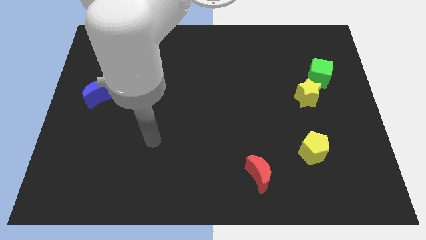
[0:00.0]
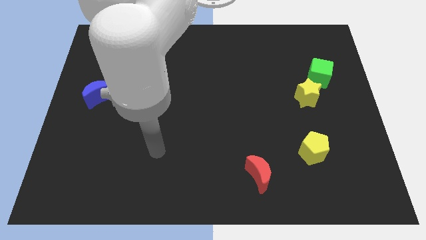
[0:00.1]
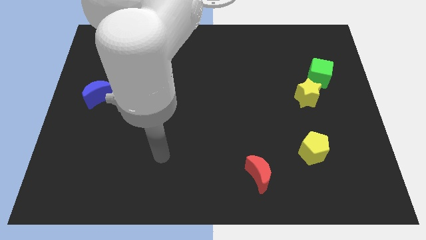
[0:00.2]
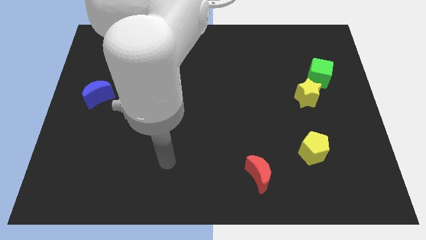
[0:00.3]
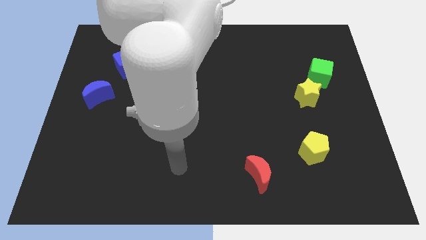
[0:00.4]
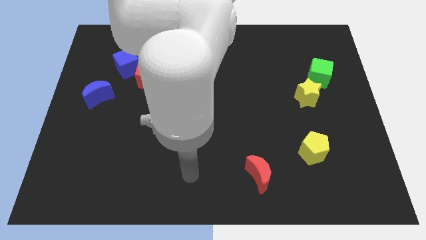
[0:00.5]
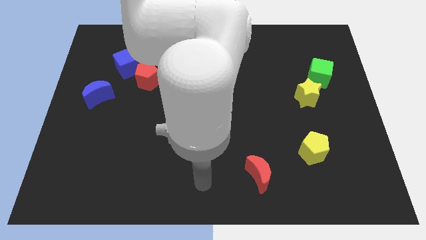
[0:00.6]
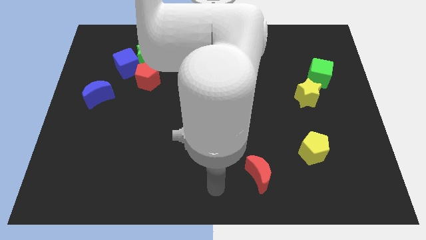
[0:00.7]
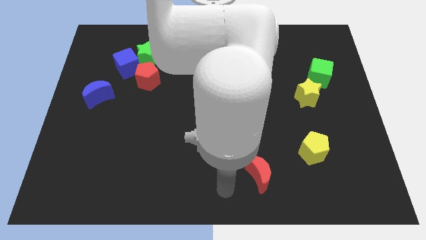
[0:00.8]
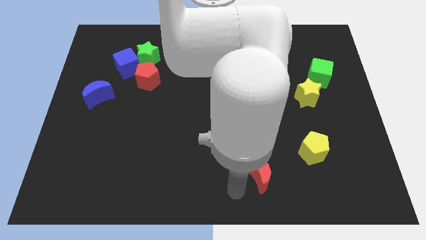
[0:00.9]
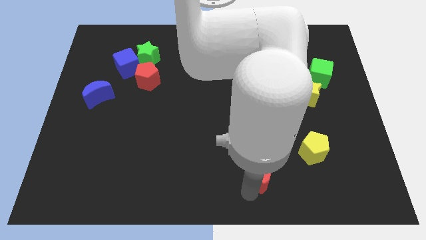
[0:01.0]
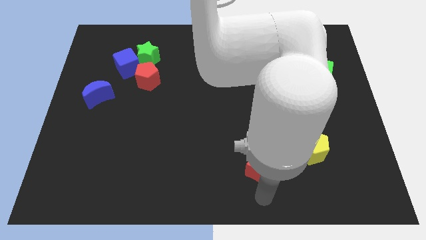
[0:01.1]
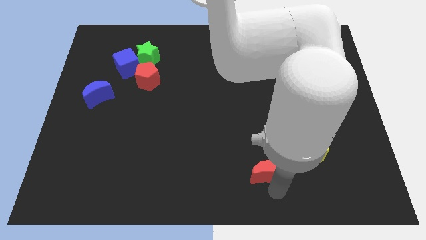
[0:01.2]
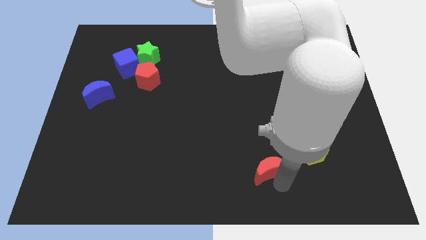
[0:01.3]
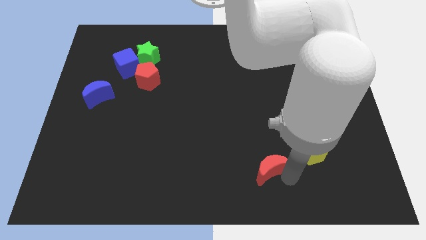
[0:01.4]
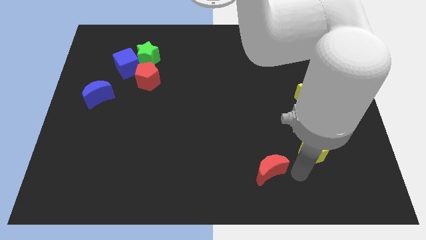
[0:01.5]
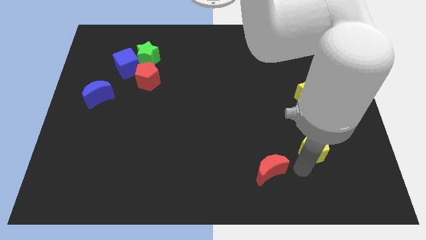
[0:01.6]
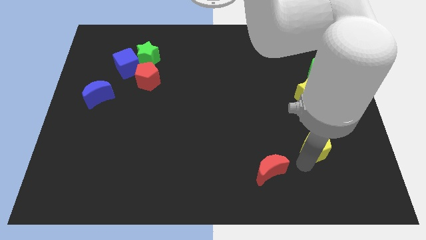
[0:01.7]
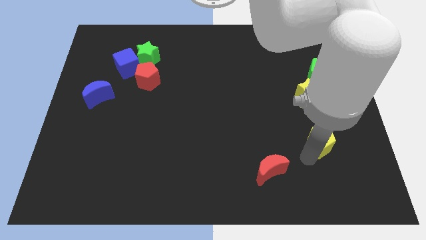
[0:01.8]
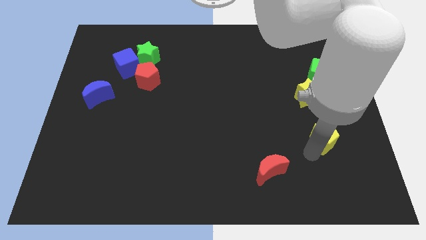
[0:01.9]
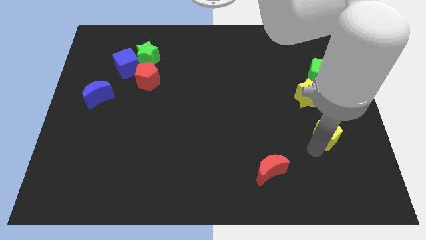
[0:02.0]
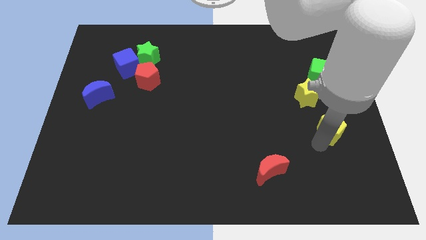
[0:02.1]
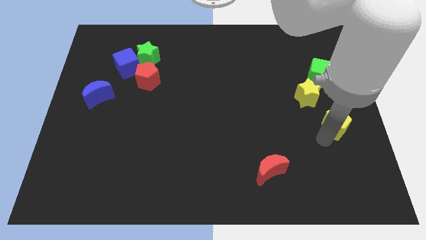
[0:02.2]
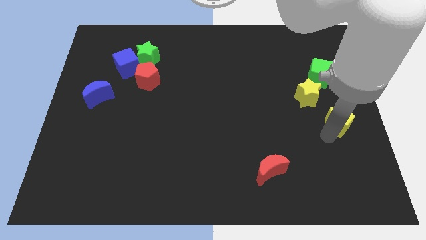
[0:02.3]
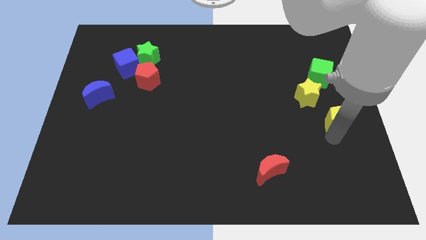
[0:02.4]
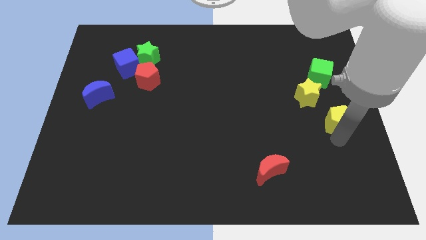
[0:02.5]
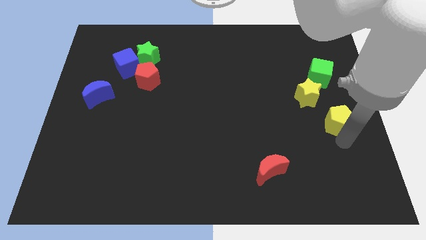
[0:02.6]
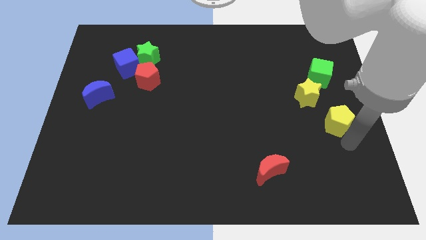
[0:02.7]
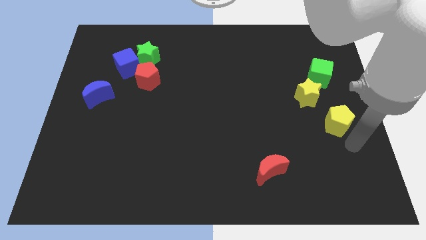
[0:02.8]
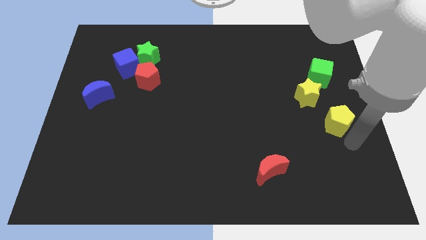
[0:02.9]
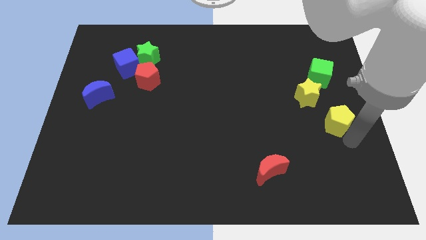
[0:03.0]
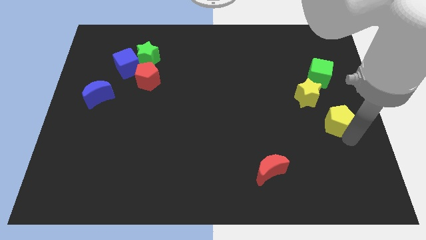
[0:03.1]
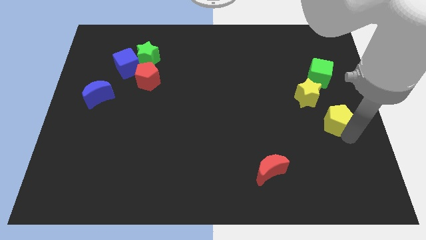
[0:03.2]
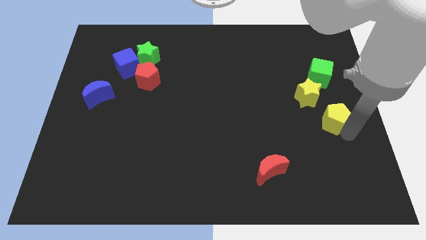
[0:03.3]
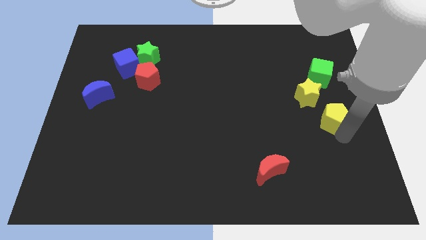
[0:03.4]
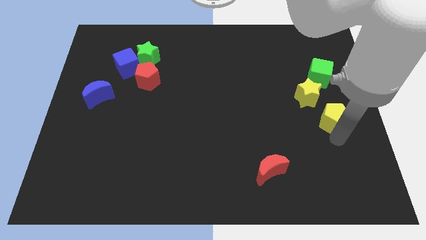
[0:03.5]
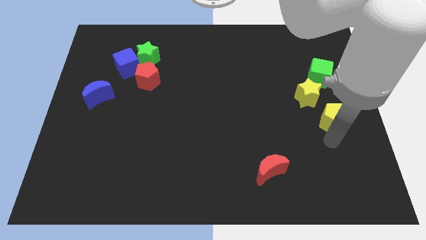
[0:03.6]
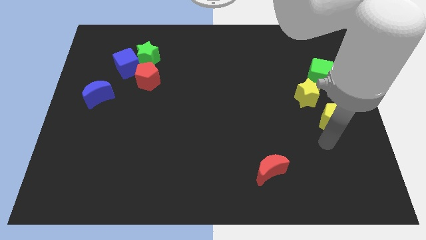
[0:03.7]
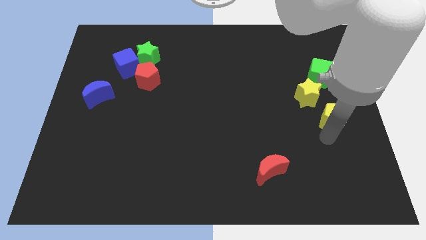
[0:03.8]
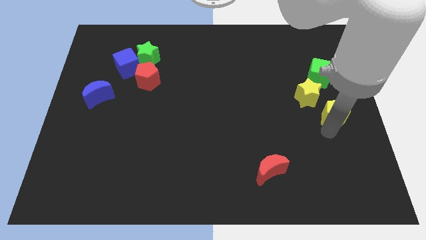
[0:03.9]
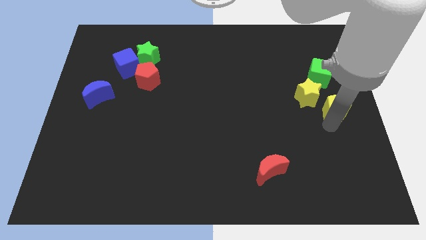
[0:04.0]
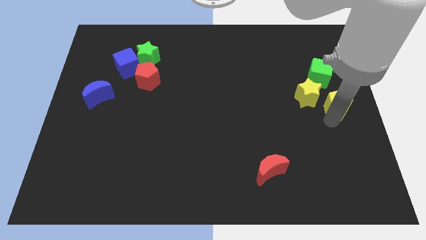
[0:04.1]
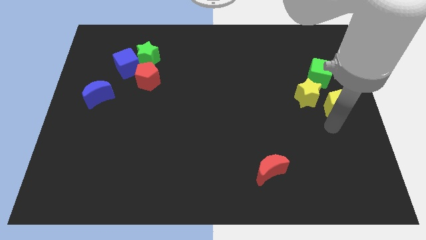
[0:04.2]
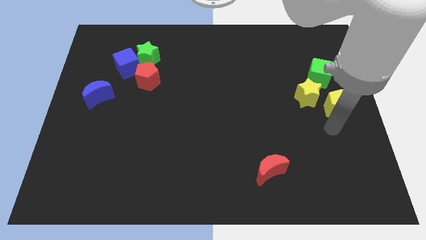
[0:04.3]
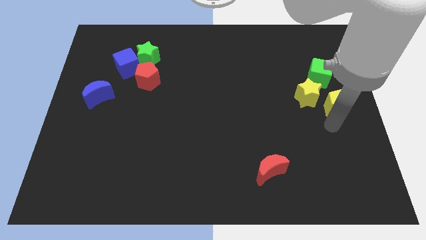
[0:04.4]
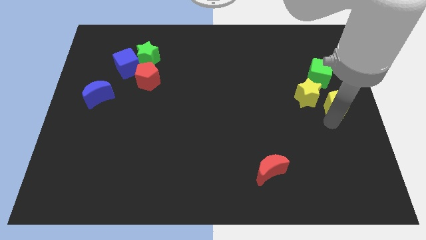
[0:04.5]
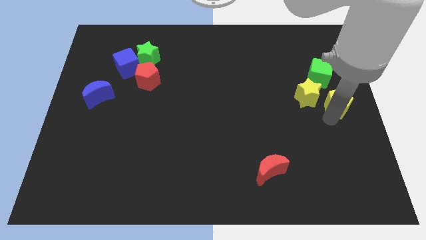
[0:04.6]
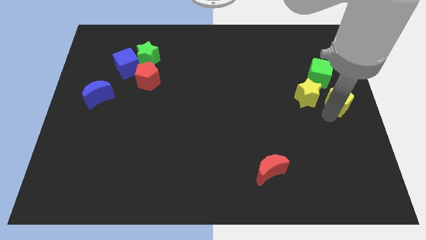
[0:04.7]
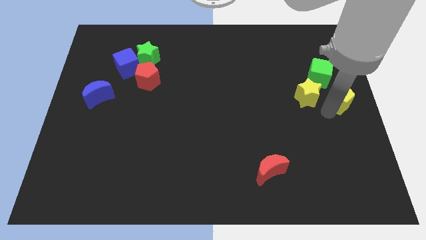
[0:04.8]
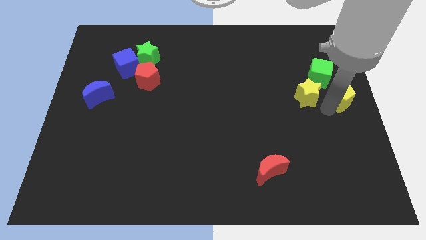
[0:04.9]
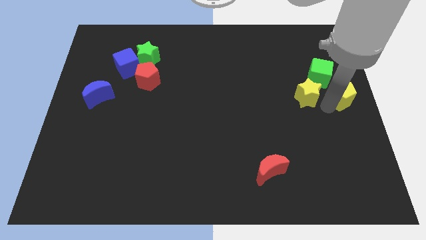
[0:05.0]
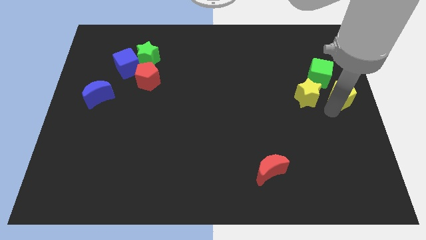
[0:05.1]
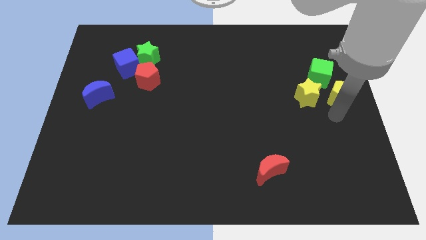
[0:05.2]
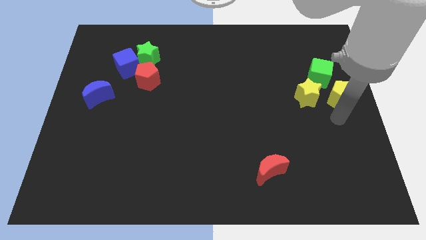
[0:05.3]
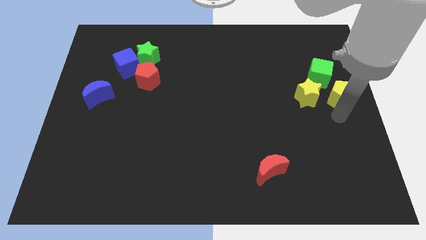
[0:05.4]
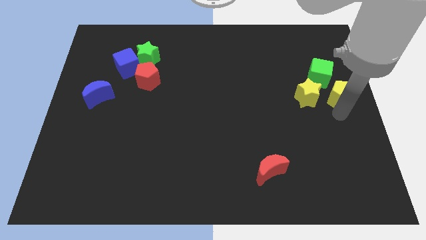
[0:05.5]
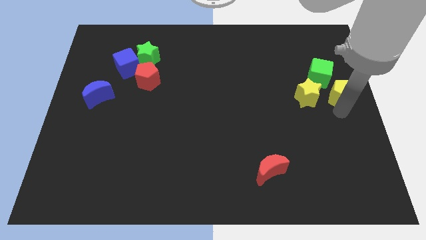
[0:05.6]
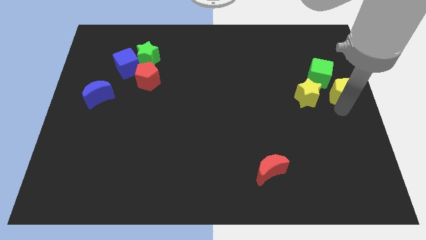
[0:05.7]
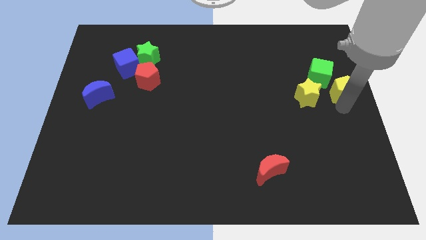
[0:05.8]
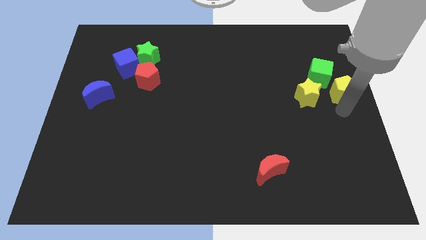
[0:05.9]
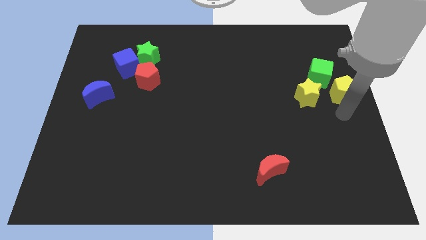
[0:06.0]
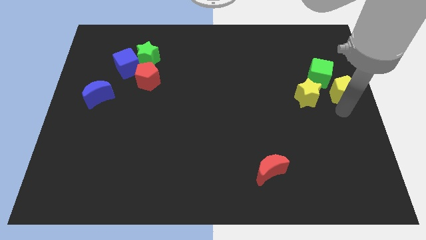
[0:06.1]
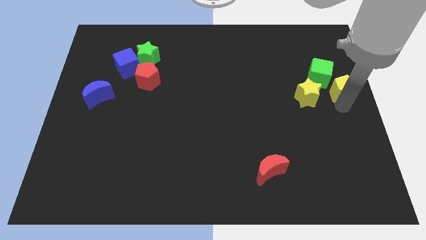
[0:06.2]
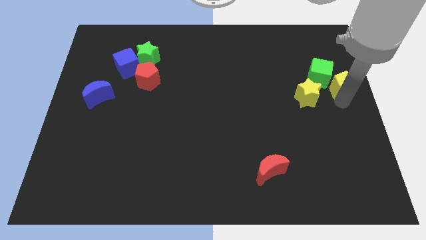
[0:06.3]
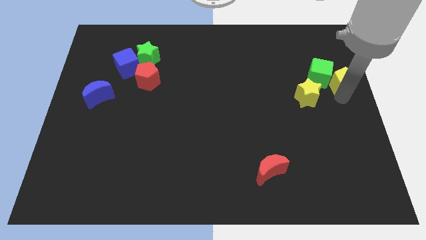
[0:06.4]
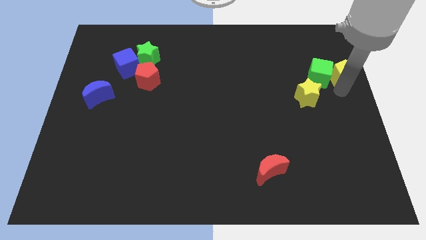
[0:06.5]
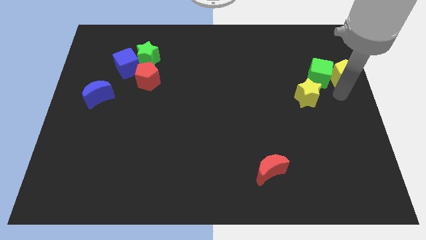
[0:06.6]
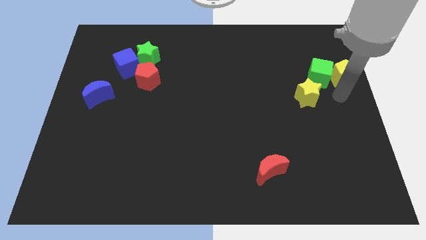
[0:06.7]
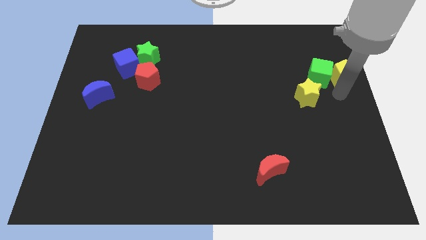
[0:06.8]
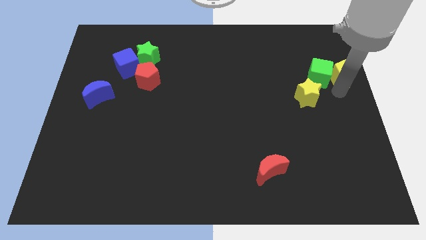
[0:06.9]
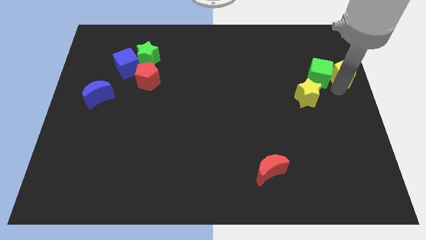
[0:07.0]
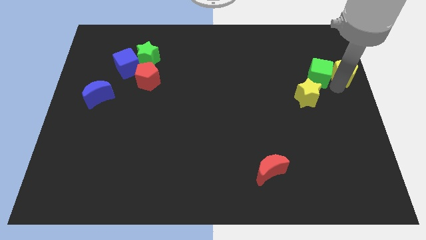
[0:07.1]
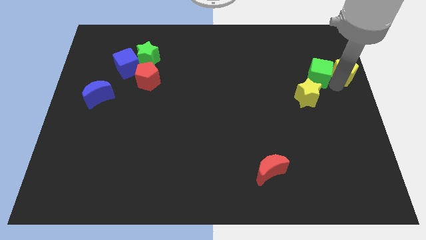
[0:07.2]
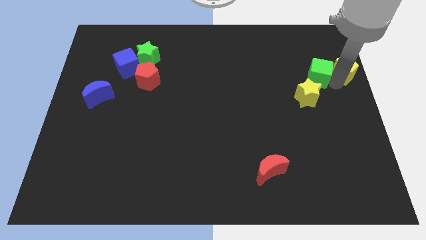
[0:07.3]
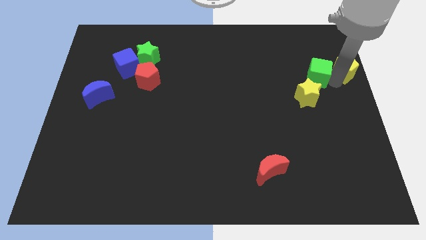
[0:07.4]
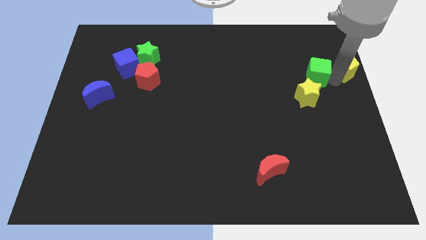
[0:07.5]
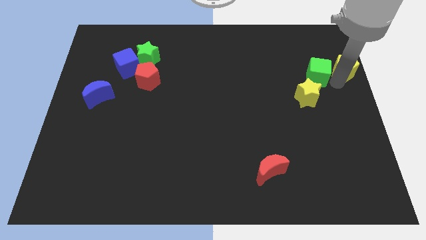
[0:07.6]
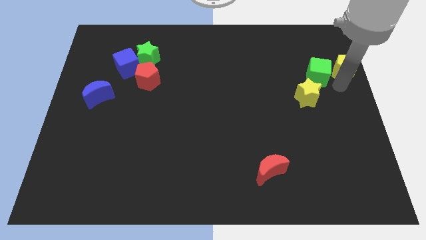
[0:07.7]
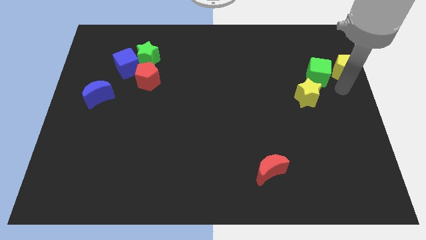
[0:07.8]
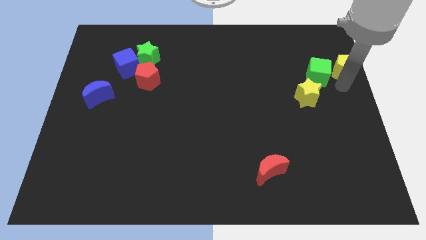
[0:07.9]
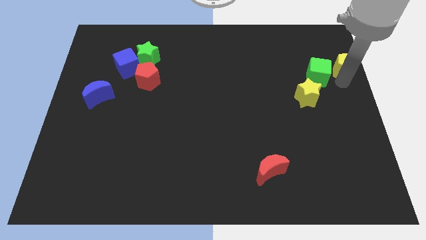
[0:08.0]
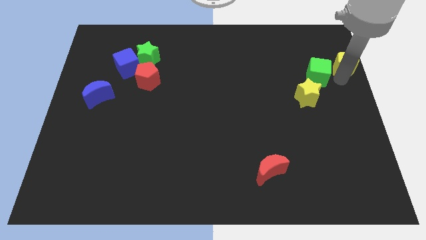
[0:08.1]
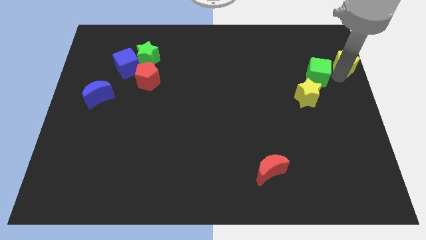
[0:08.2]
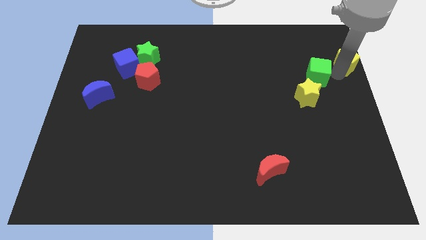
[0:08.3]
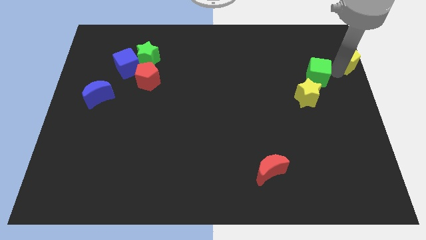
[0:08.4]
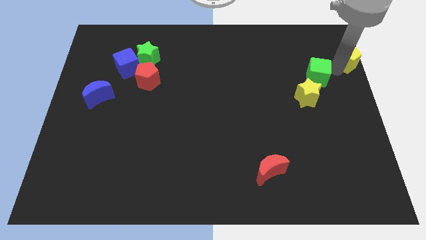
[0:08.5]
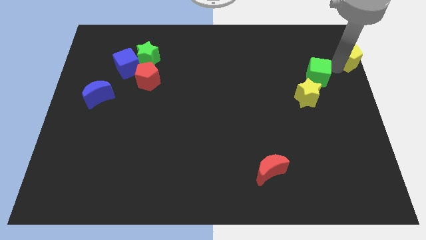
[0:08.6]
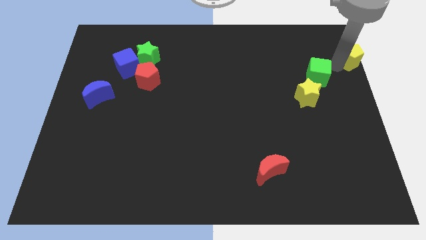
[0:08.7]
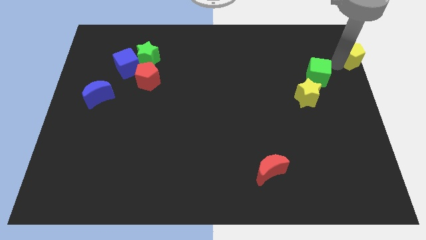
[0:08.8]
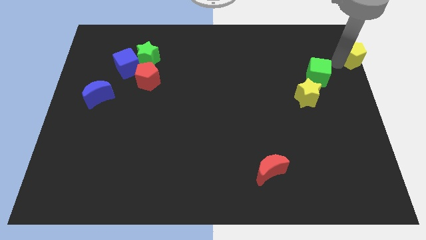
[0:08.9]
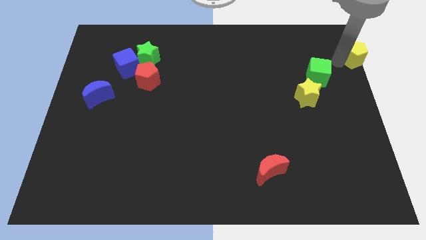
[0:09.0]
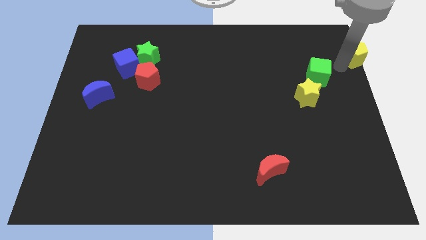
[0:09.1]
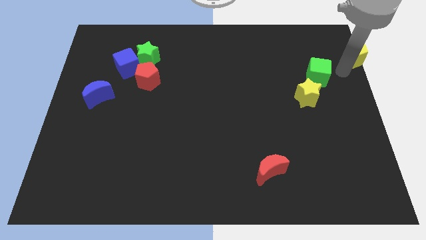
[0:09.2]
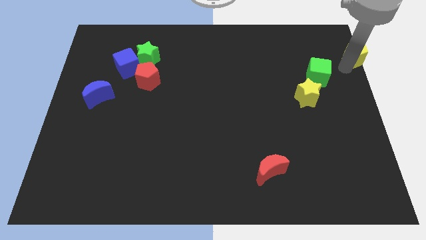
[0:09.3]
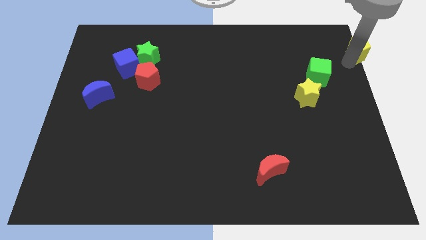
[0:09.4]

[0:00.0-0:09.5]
slide the yellow pentagon to the top right corner
